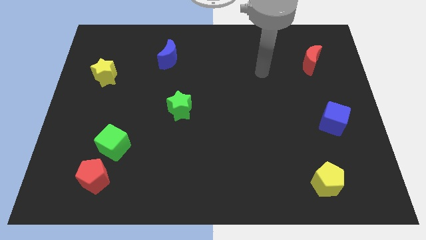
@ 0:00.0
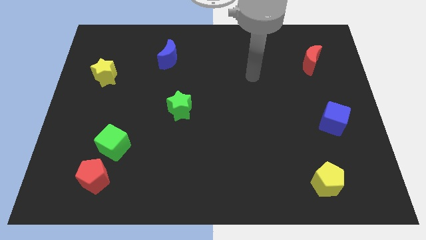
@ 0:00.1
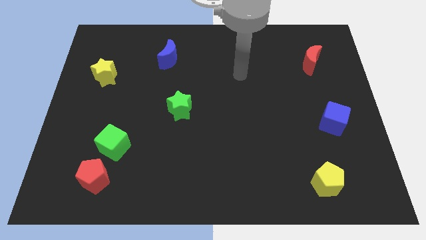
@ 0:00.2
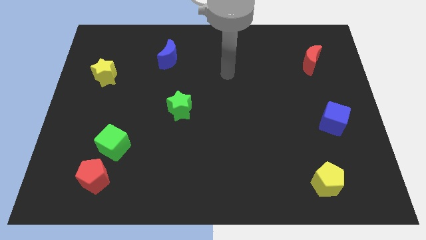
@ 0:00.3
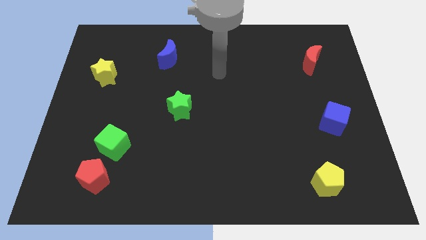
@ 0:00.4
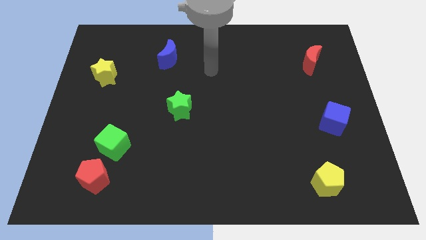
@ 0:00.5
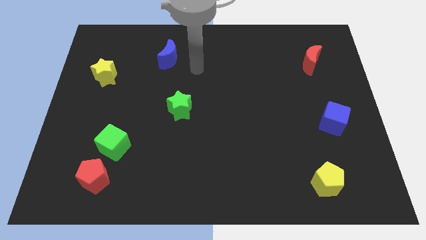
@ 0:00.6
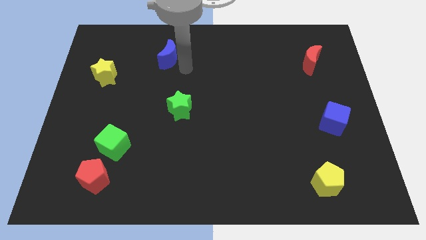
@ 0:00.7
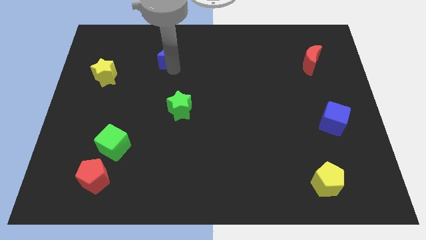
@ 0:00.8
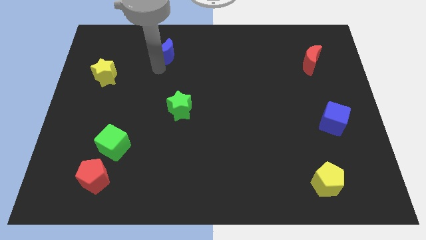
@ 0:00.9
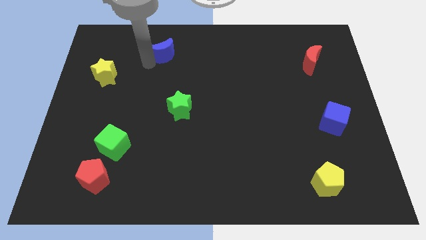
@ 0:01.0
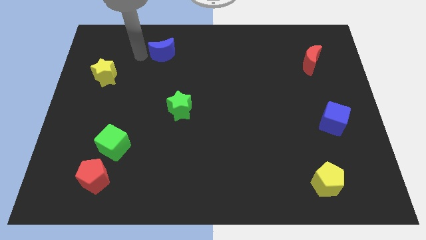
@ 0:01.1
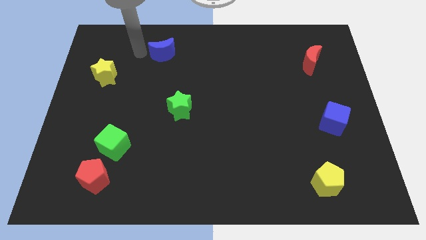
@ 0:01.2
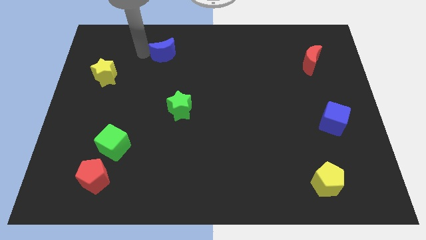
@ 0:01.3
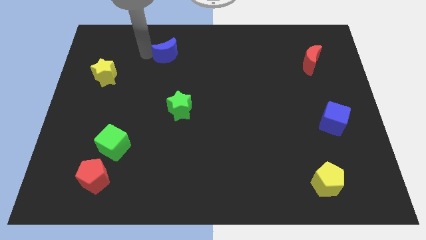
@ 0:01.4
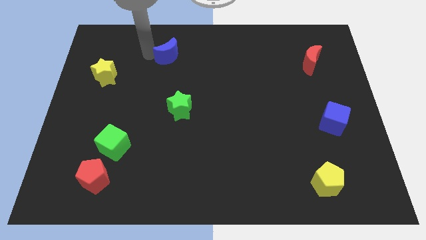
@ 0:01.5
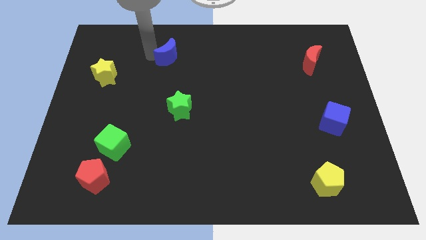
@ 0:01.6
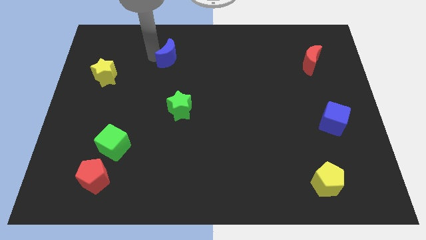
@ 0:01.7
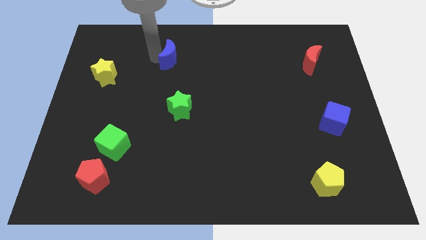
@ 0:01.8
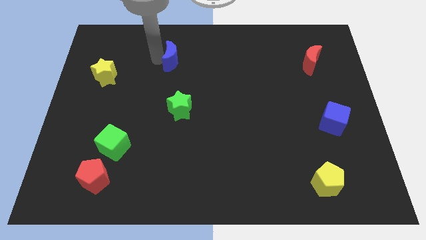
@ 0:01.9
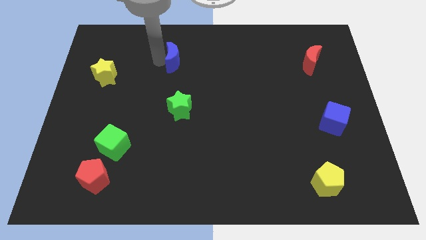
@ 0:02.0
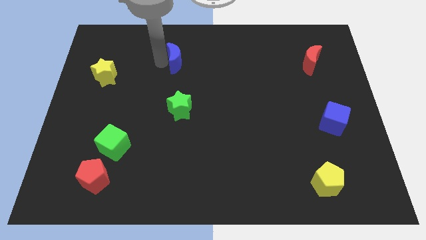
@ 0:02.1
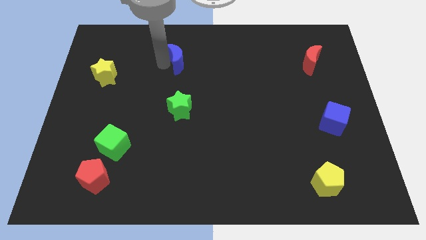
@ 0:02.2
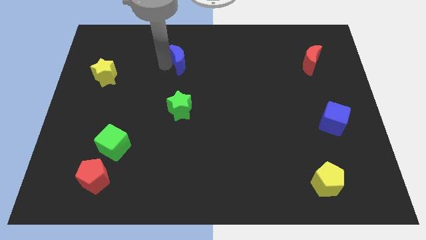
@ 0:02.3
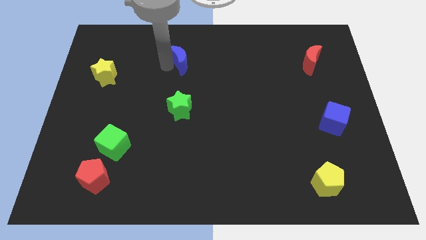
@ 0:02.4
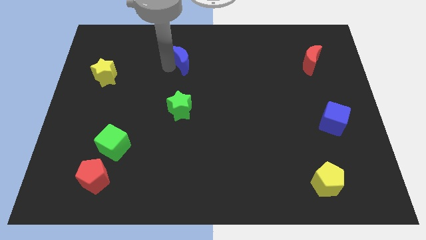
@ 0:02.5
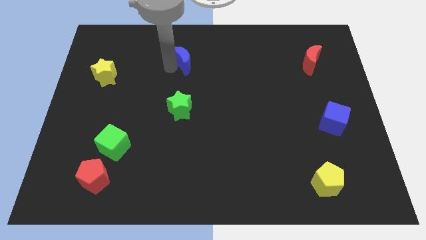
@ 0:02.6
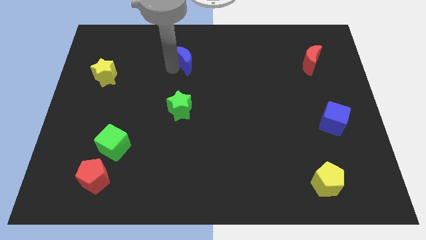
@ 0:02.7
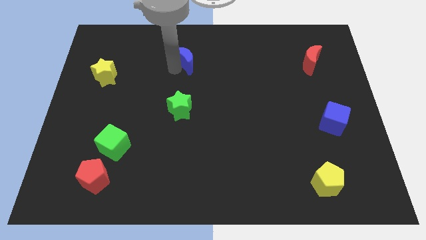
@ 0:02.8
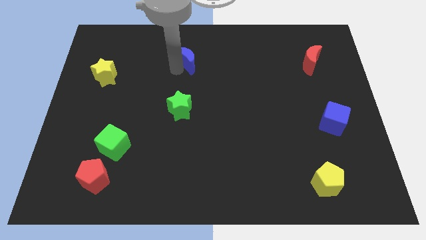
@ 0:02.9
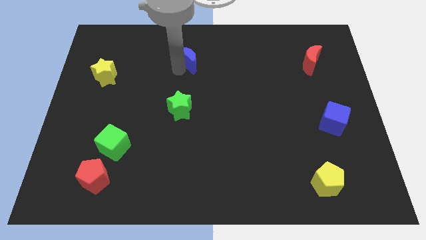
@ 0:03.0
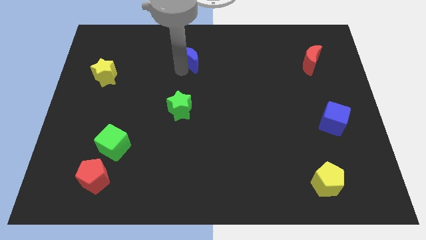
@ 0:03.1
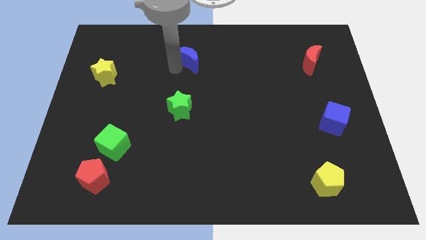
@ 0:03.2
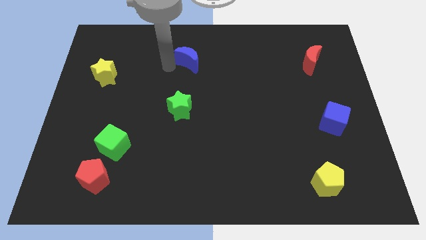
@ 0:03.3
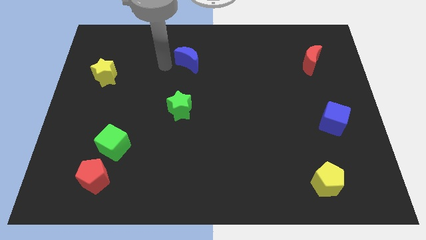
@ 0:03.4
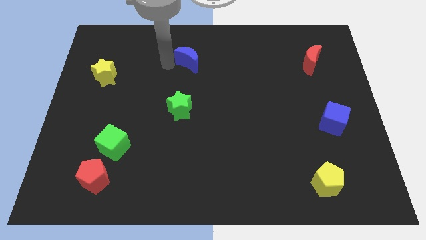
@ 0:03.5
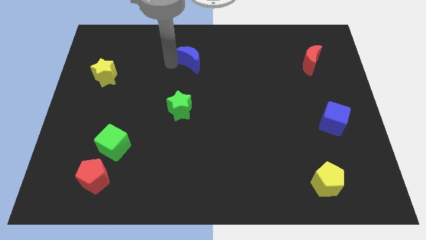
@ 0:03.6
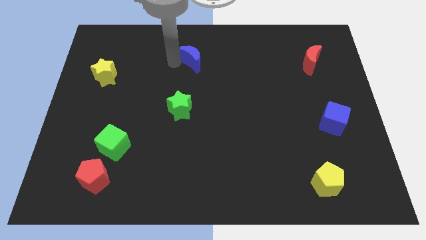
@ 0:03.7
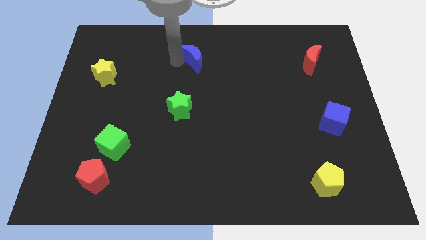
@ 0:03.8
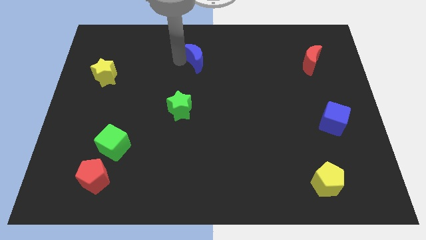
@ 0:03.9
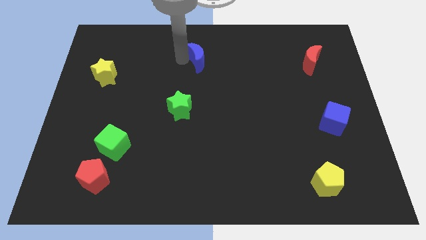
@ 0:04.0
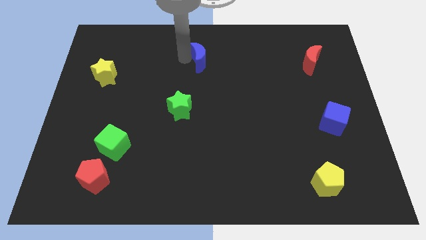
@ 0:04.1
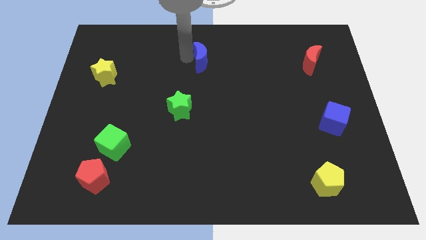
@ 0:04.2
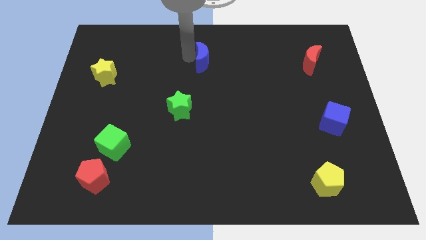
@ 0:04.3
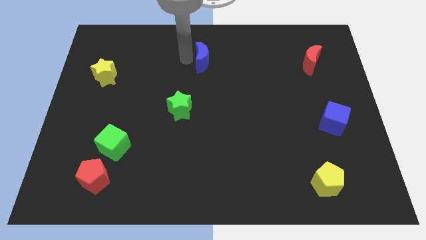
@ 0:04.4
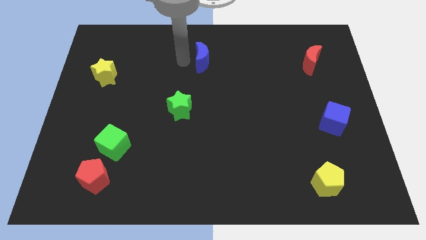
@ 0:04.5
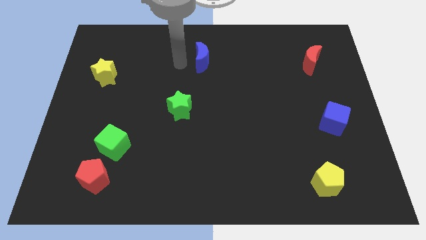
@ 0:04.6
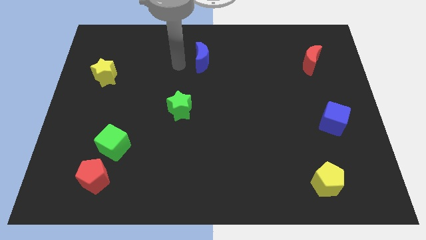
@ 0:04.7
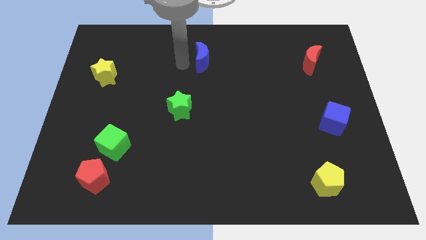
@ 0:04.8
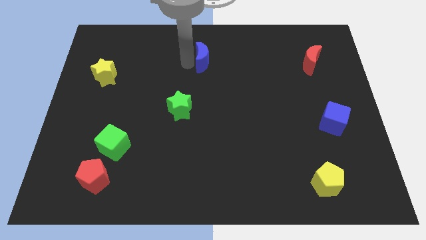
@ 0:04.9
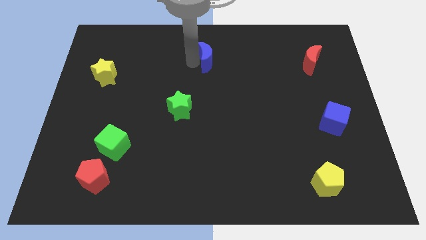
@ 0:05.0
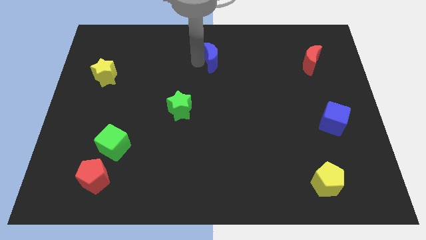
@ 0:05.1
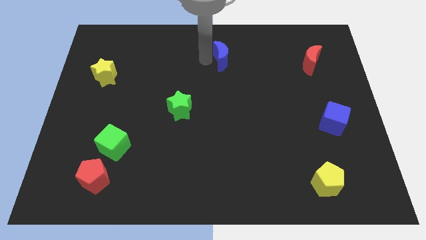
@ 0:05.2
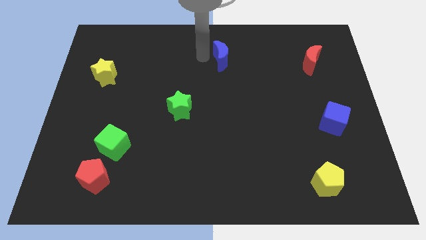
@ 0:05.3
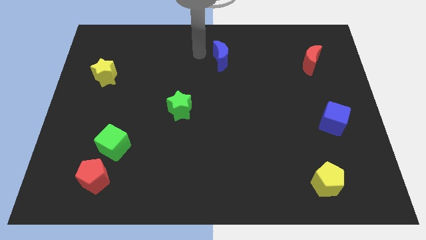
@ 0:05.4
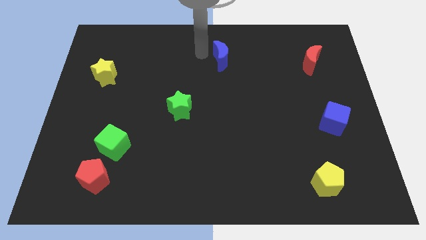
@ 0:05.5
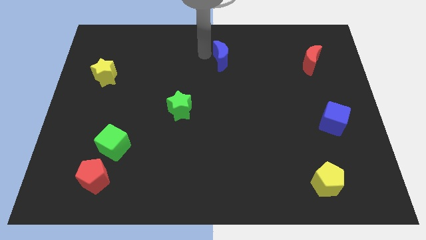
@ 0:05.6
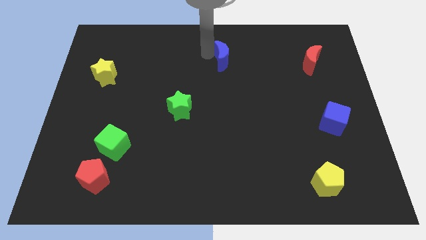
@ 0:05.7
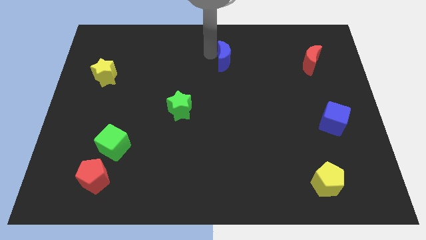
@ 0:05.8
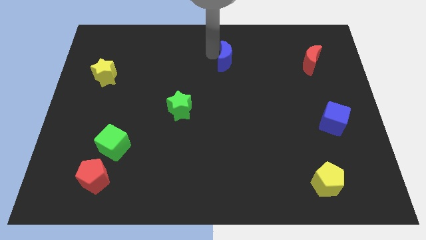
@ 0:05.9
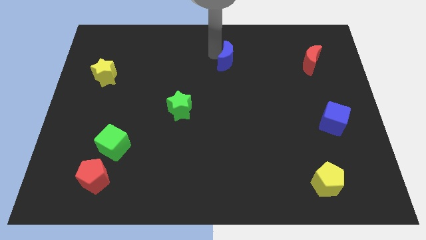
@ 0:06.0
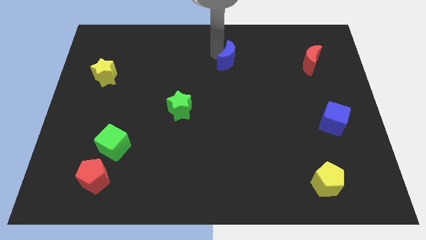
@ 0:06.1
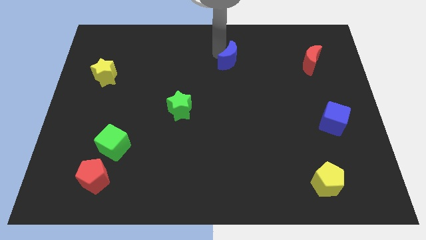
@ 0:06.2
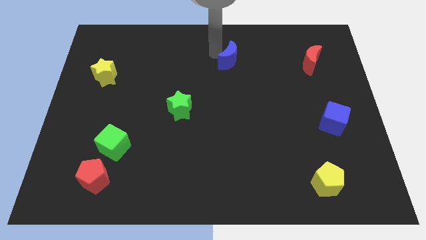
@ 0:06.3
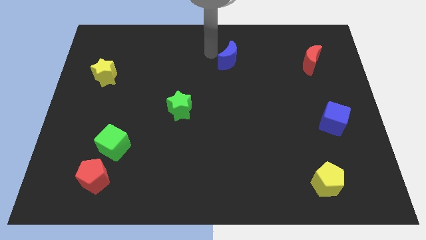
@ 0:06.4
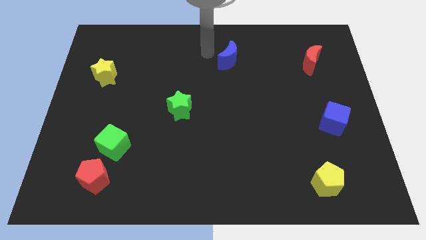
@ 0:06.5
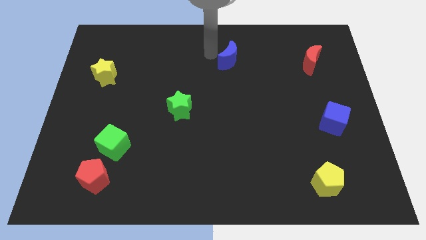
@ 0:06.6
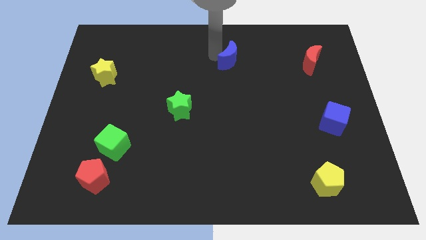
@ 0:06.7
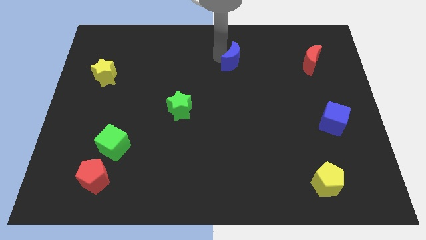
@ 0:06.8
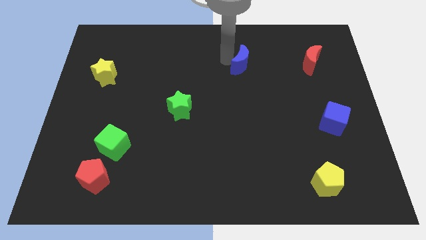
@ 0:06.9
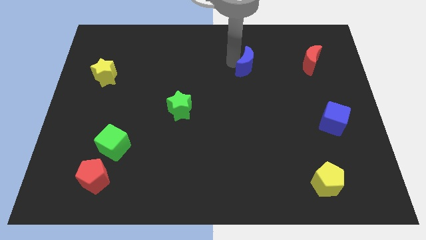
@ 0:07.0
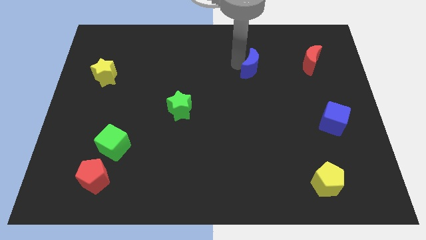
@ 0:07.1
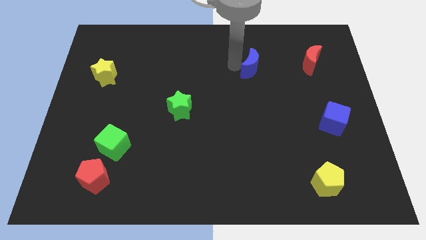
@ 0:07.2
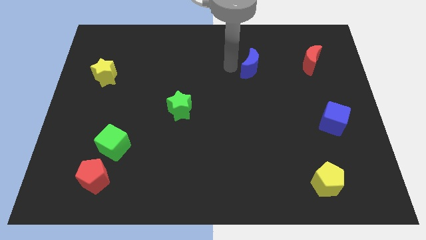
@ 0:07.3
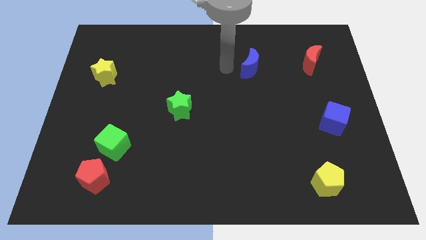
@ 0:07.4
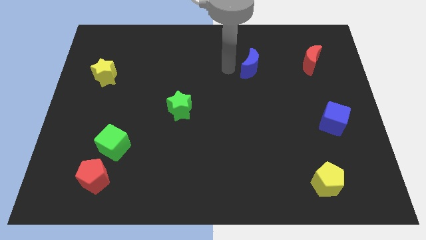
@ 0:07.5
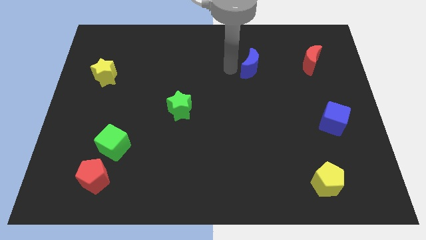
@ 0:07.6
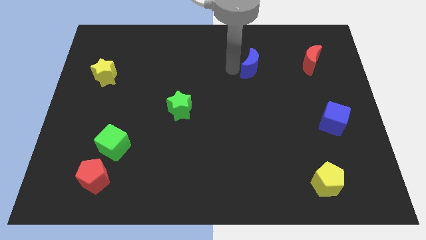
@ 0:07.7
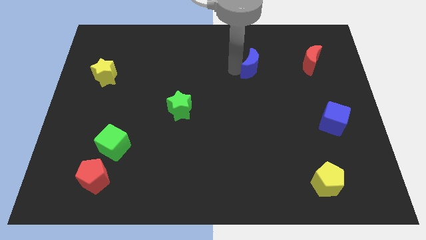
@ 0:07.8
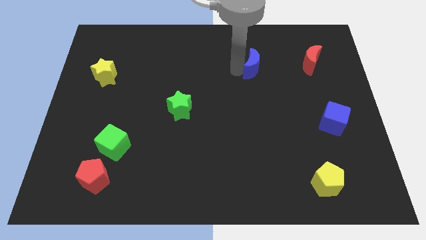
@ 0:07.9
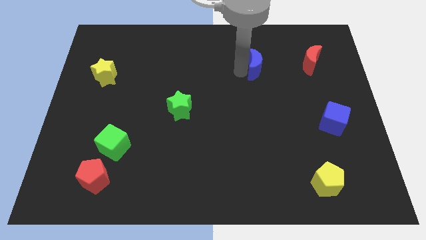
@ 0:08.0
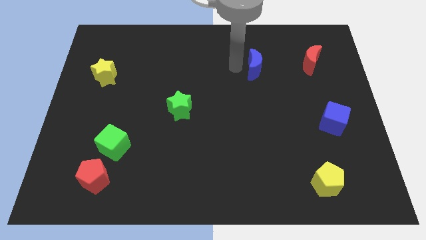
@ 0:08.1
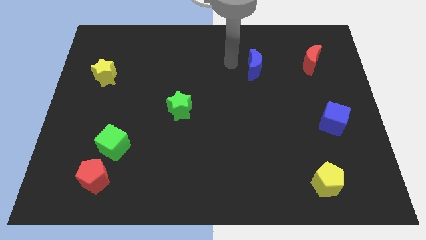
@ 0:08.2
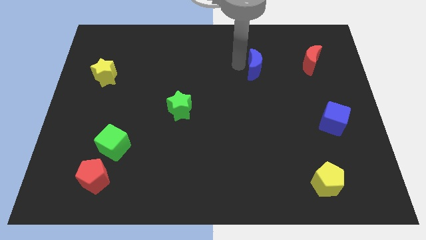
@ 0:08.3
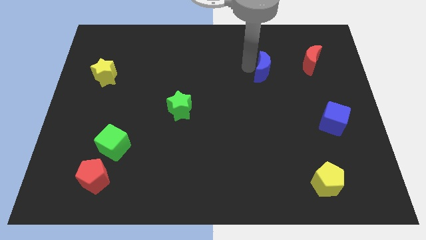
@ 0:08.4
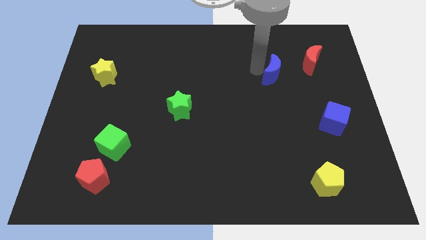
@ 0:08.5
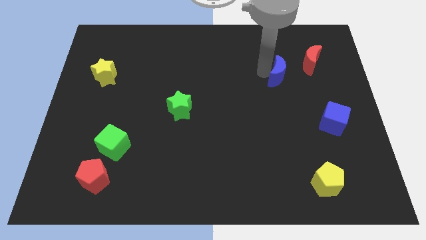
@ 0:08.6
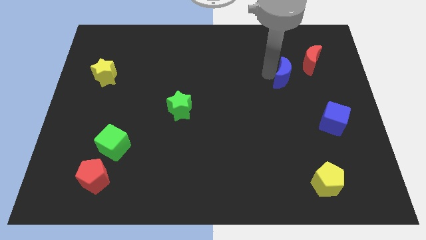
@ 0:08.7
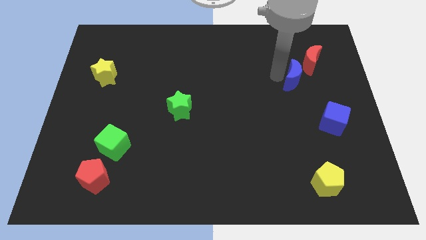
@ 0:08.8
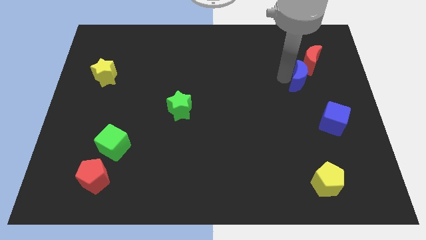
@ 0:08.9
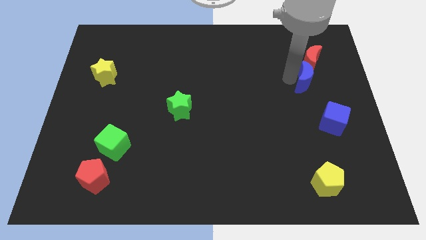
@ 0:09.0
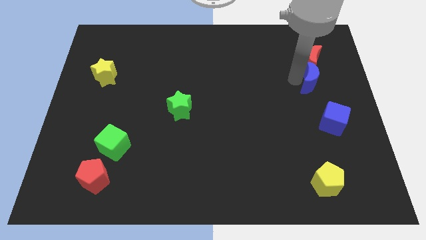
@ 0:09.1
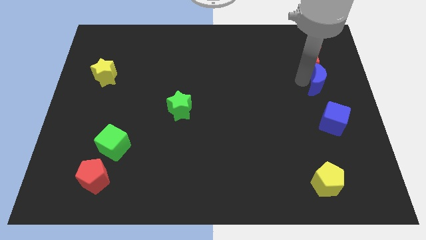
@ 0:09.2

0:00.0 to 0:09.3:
push the blue moon to the right side
